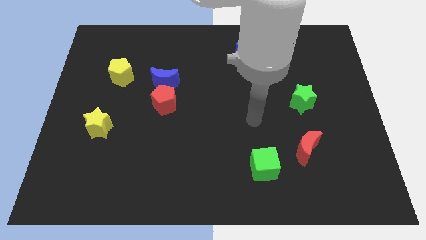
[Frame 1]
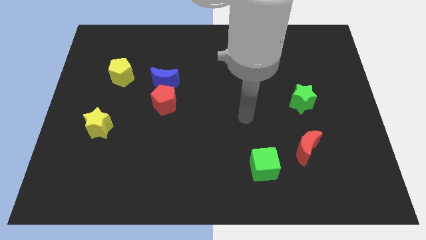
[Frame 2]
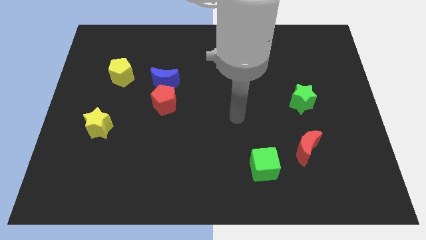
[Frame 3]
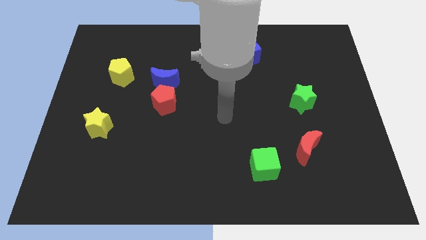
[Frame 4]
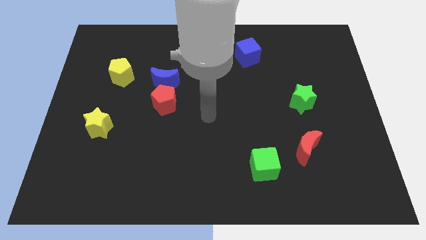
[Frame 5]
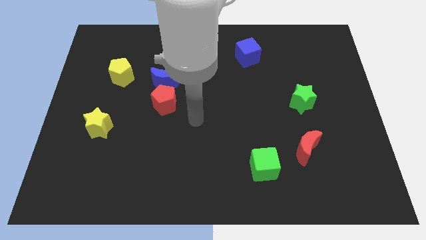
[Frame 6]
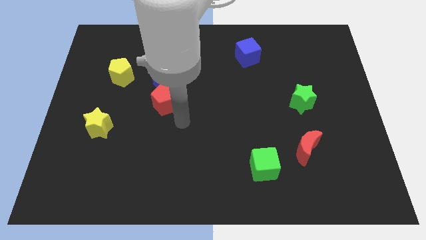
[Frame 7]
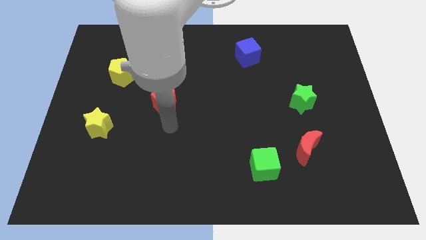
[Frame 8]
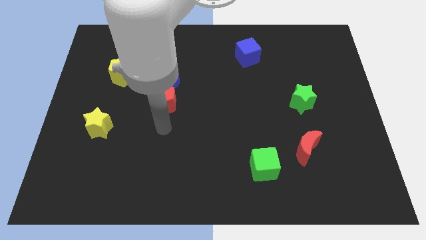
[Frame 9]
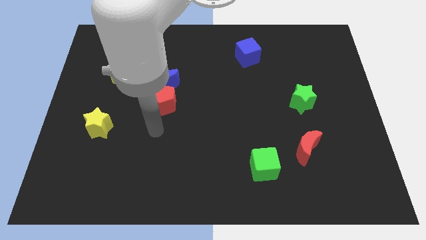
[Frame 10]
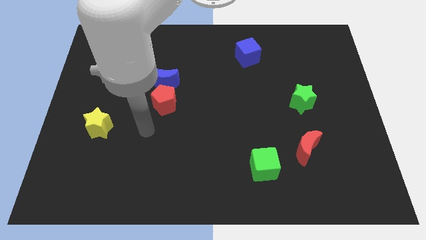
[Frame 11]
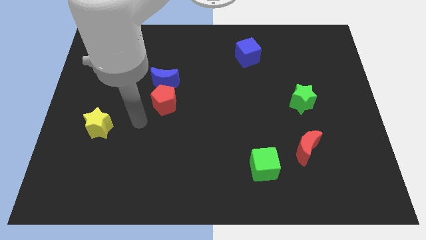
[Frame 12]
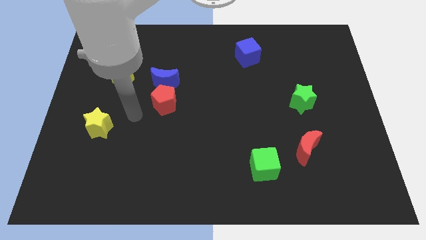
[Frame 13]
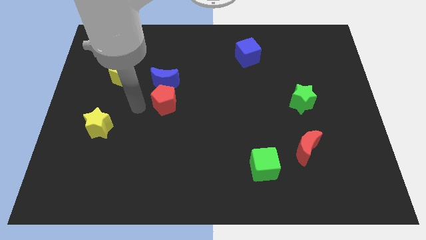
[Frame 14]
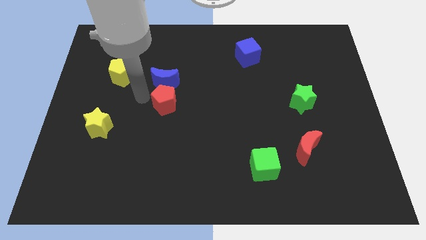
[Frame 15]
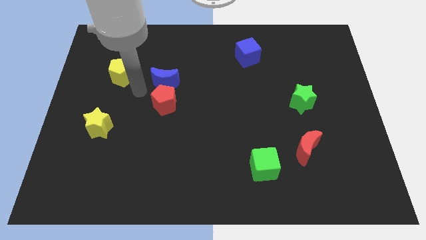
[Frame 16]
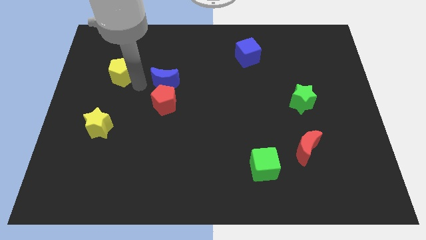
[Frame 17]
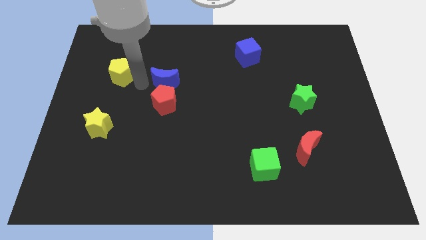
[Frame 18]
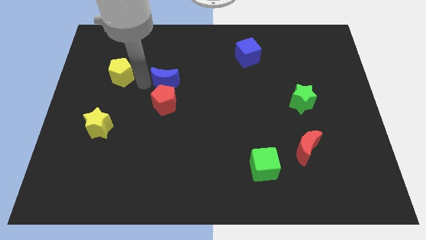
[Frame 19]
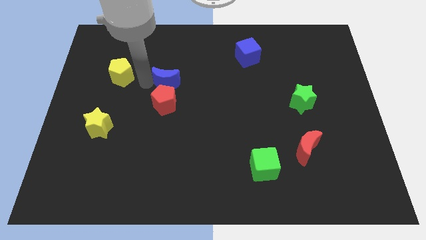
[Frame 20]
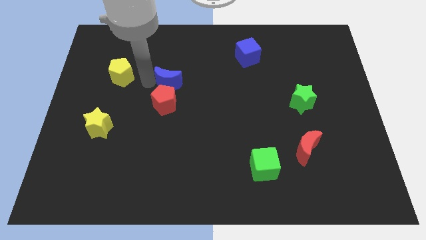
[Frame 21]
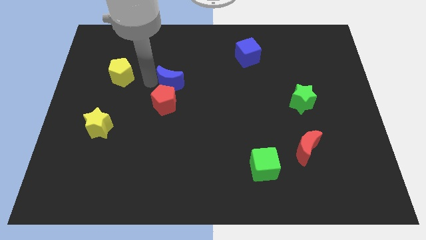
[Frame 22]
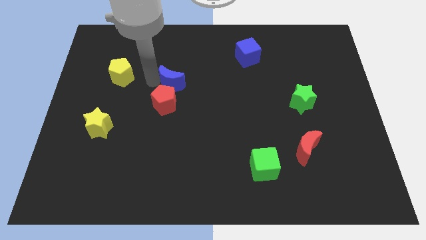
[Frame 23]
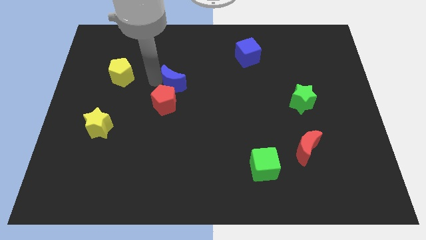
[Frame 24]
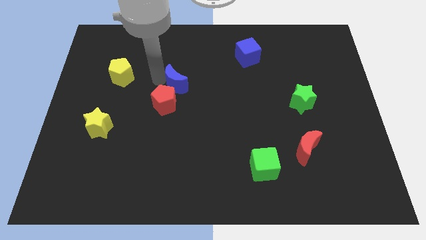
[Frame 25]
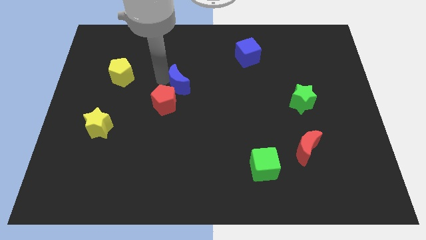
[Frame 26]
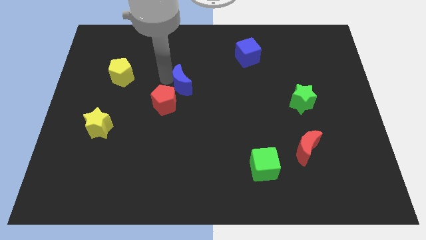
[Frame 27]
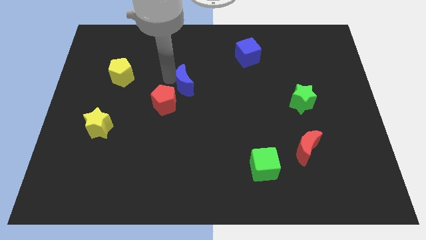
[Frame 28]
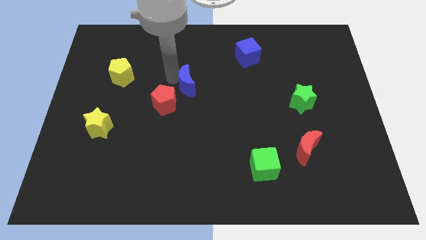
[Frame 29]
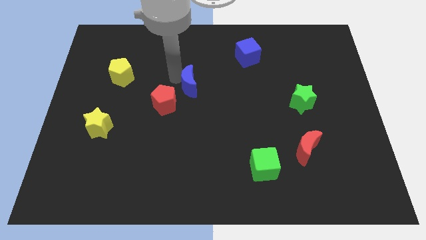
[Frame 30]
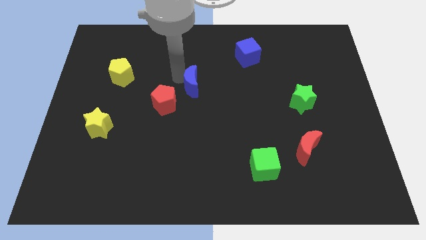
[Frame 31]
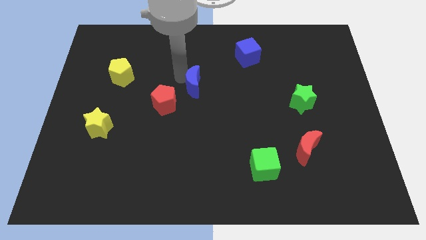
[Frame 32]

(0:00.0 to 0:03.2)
move the blue moon slightly right

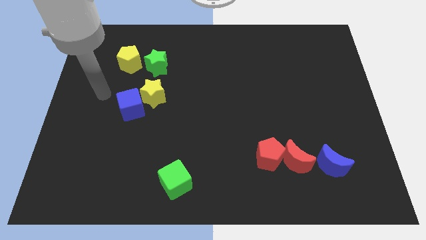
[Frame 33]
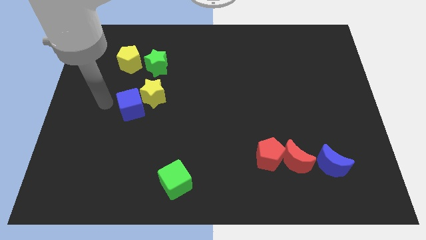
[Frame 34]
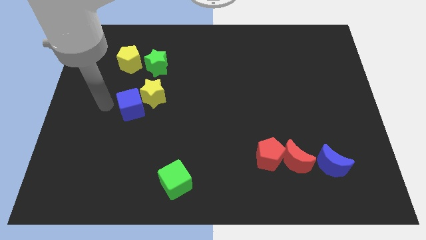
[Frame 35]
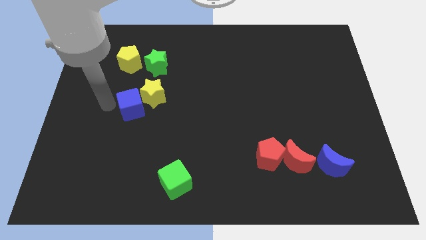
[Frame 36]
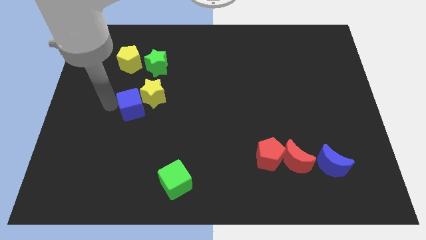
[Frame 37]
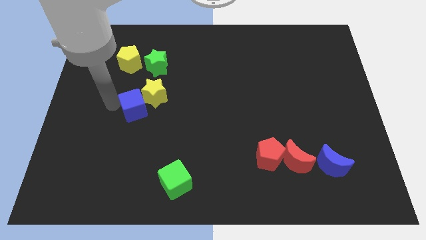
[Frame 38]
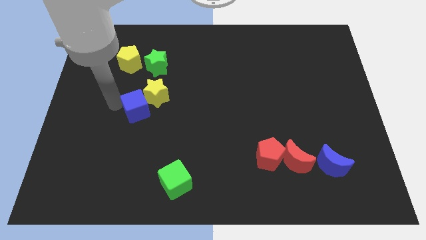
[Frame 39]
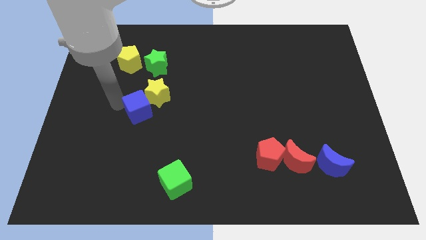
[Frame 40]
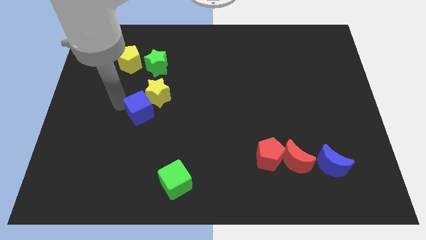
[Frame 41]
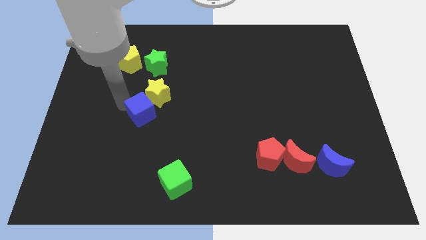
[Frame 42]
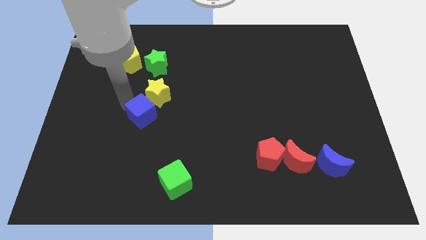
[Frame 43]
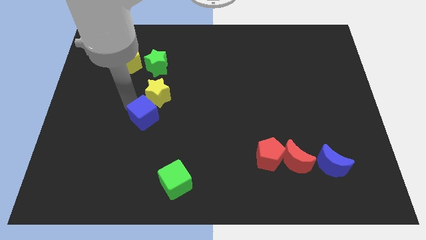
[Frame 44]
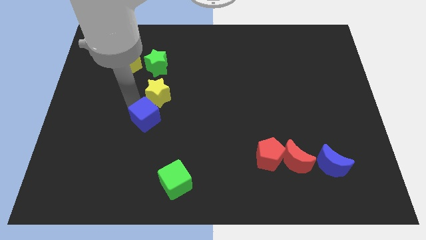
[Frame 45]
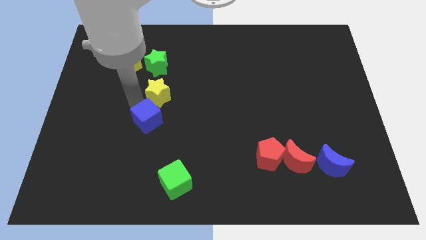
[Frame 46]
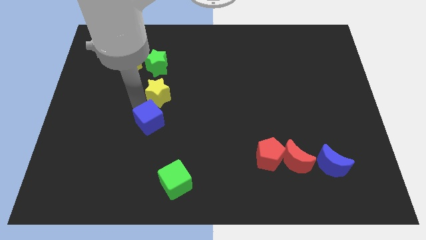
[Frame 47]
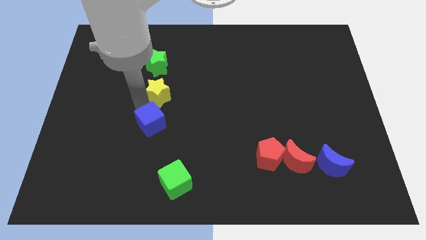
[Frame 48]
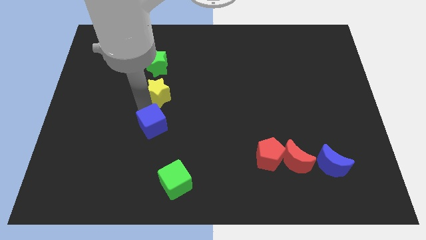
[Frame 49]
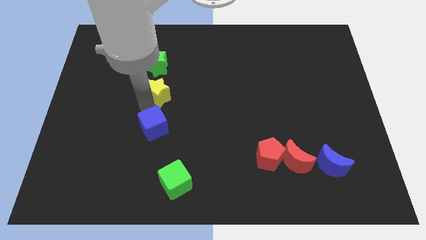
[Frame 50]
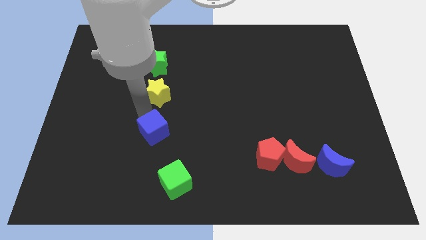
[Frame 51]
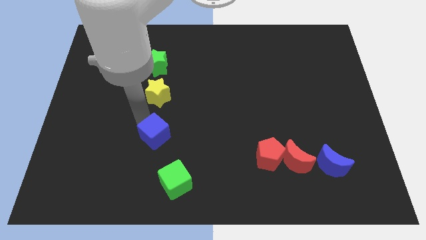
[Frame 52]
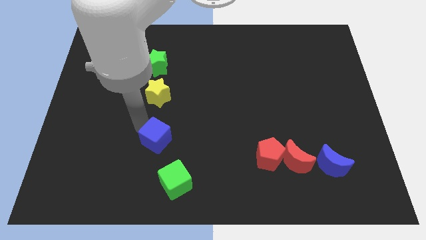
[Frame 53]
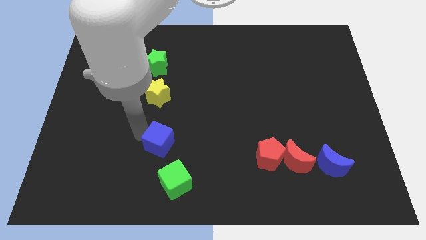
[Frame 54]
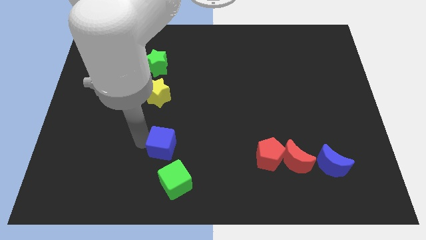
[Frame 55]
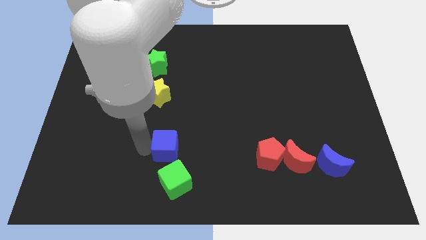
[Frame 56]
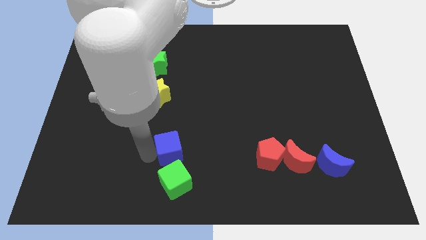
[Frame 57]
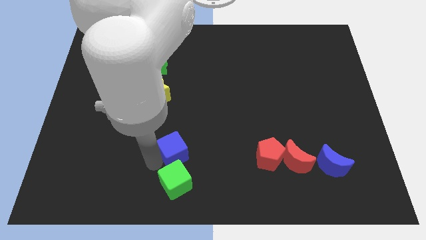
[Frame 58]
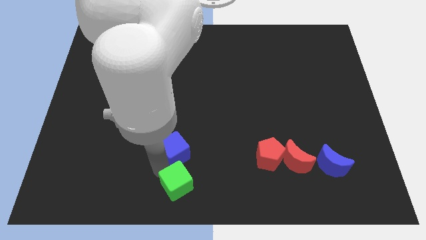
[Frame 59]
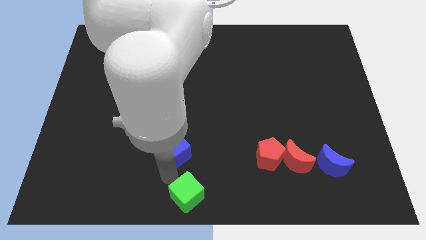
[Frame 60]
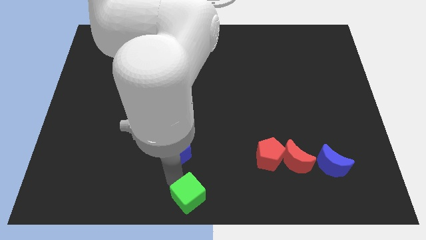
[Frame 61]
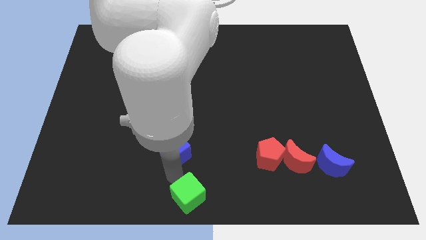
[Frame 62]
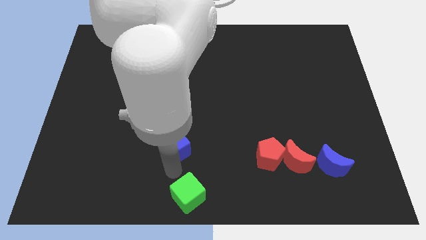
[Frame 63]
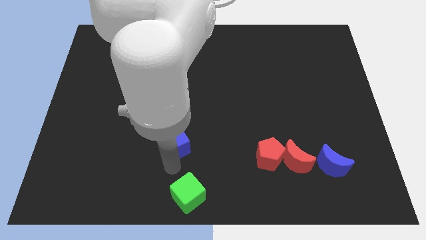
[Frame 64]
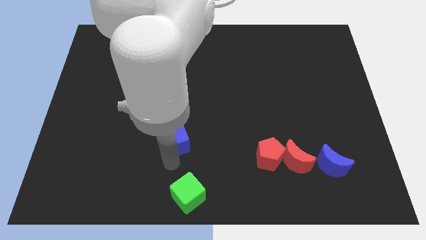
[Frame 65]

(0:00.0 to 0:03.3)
move the blue cube to the right a little

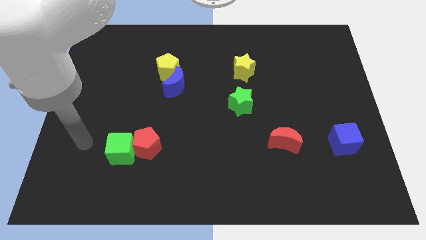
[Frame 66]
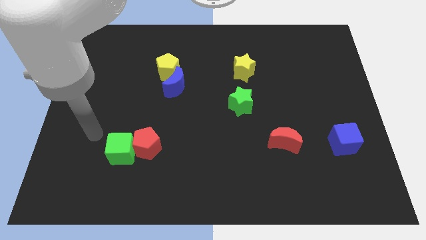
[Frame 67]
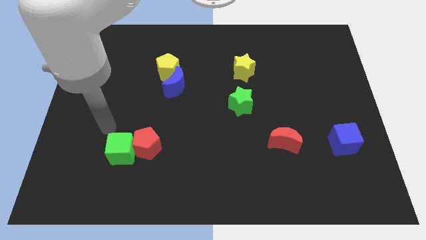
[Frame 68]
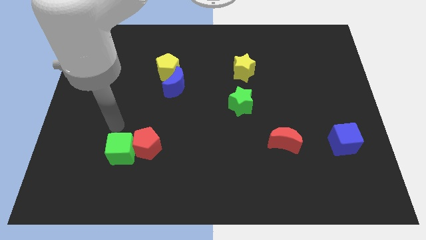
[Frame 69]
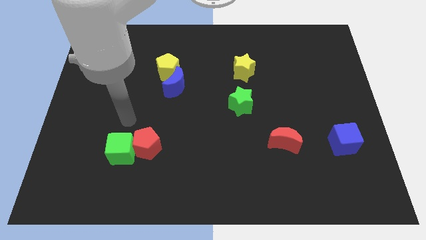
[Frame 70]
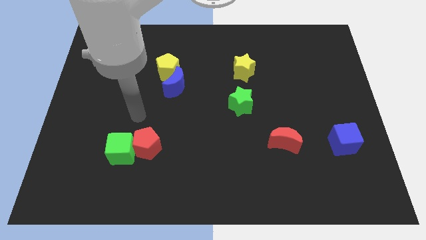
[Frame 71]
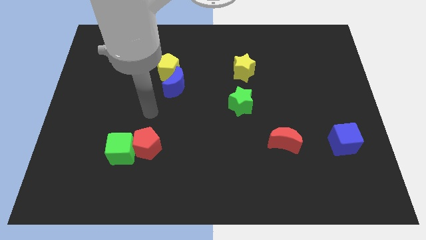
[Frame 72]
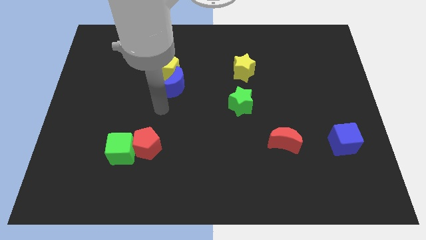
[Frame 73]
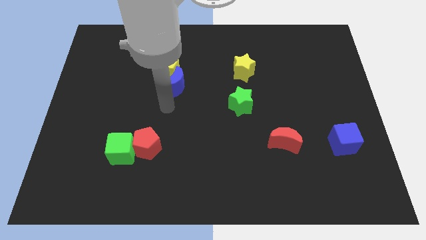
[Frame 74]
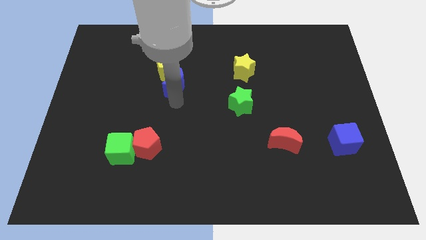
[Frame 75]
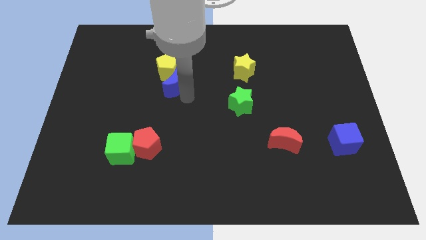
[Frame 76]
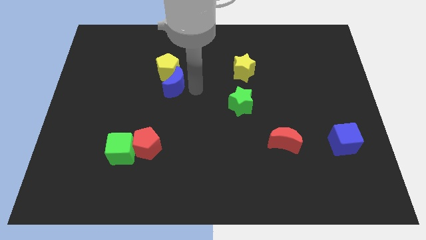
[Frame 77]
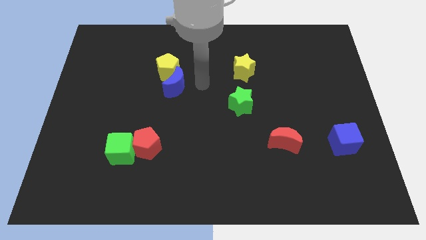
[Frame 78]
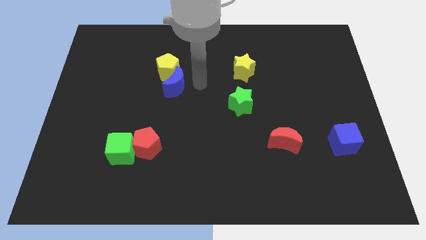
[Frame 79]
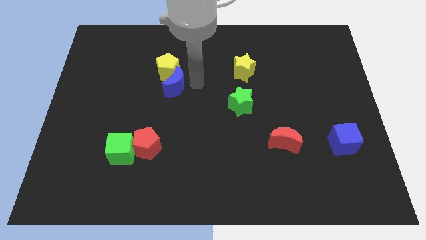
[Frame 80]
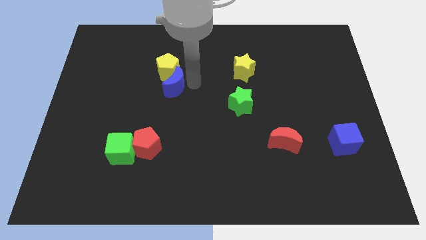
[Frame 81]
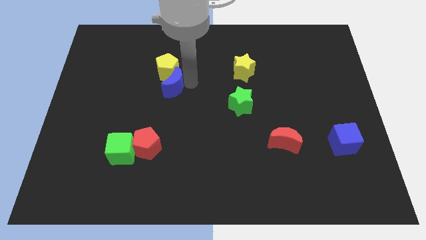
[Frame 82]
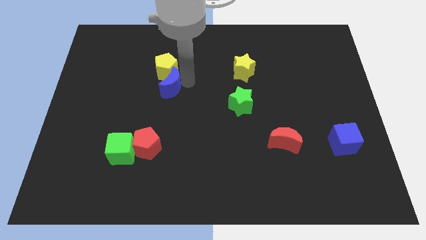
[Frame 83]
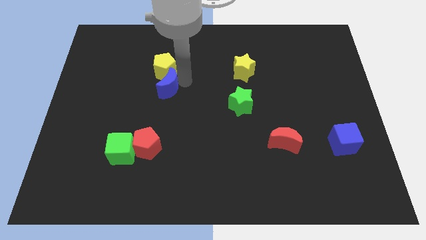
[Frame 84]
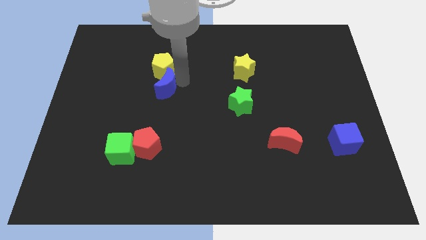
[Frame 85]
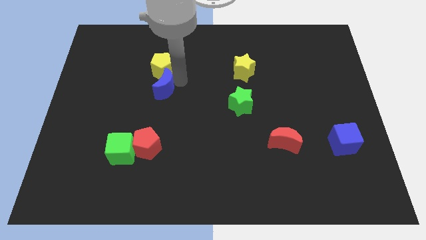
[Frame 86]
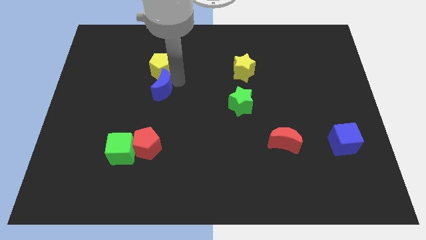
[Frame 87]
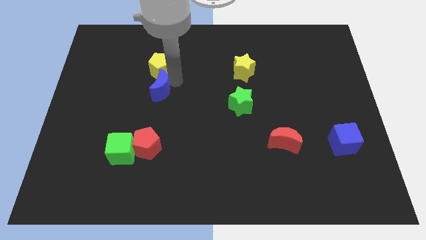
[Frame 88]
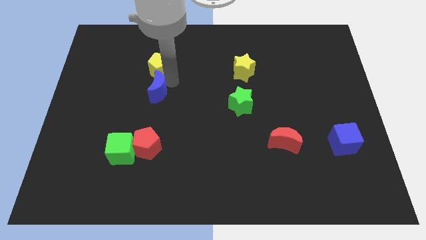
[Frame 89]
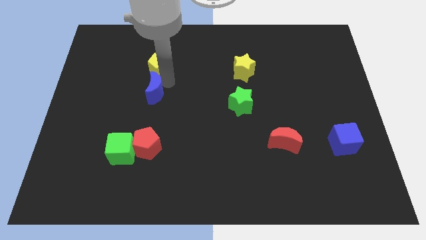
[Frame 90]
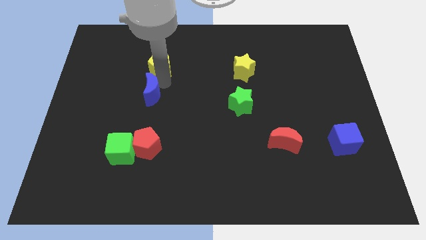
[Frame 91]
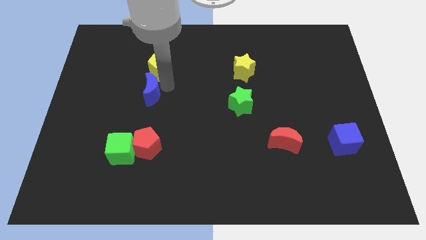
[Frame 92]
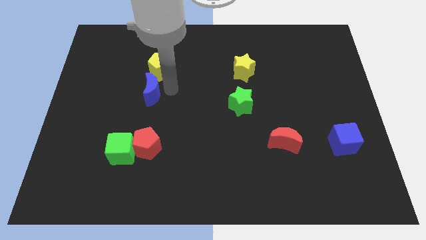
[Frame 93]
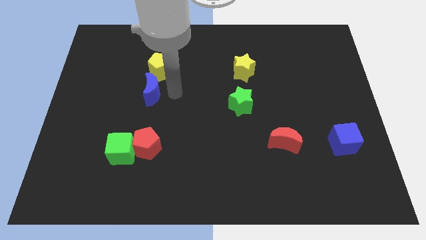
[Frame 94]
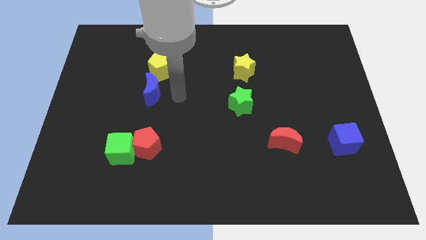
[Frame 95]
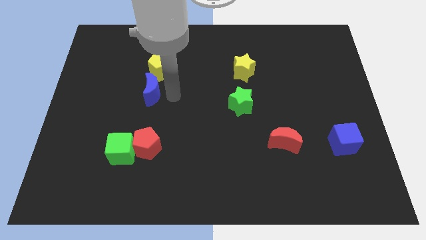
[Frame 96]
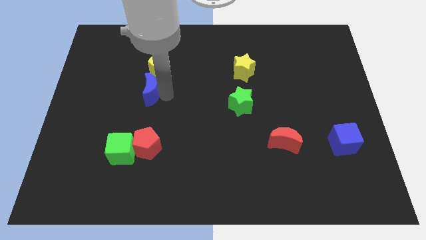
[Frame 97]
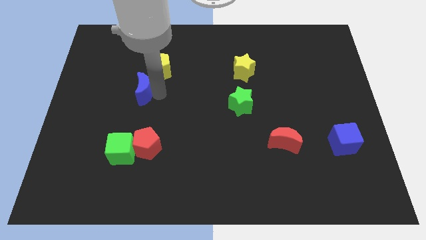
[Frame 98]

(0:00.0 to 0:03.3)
move the blue moon a little bit left
